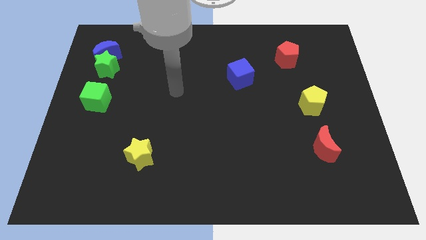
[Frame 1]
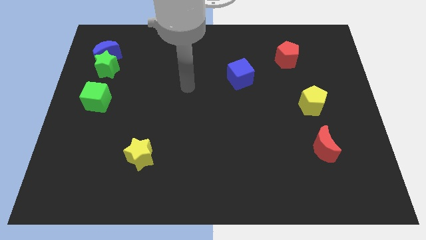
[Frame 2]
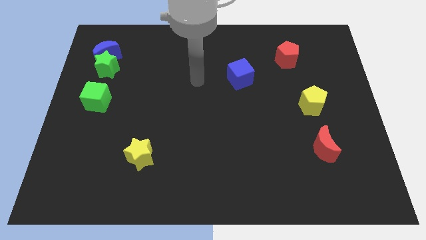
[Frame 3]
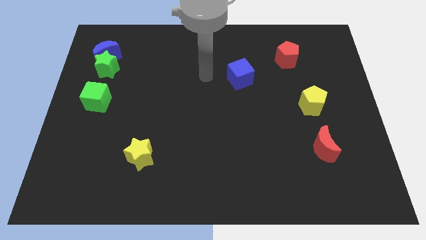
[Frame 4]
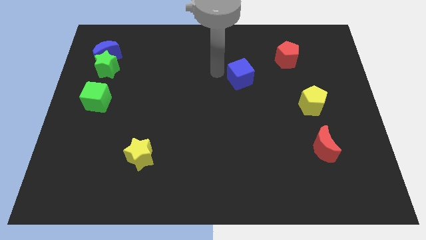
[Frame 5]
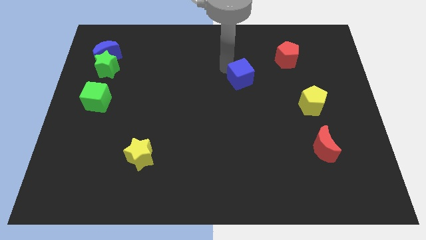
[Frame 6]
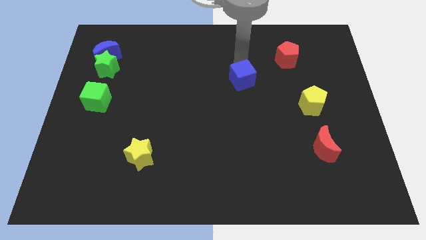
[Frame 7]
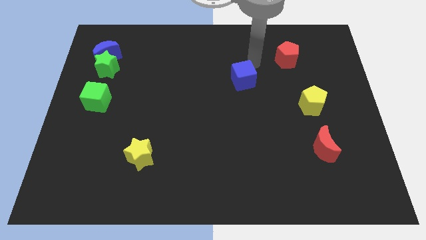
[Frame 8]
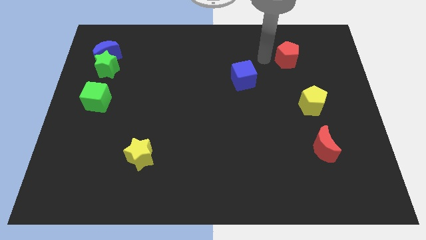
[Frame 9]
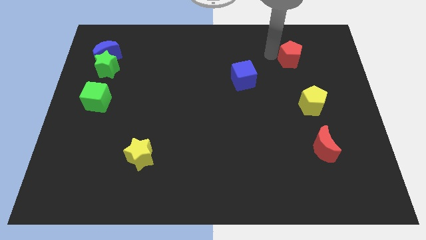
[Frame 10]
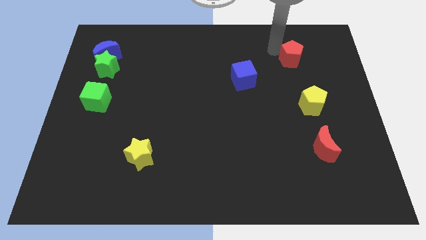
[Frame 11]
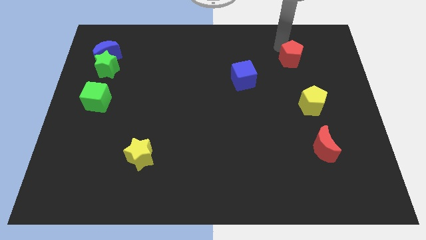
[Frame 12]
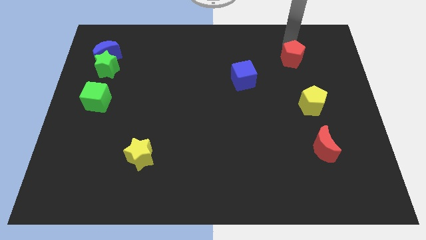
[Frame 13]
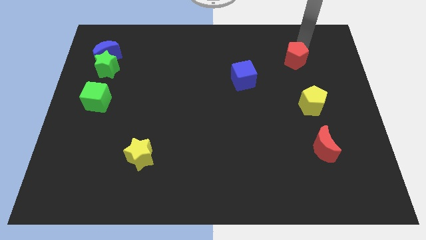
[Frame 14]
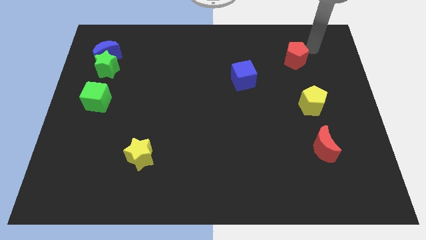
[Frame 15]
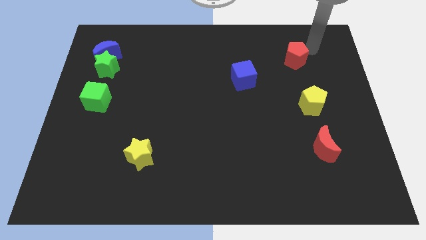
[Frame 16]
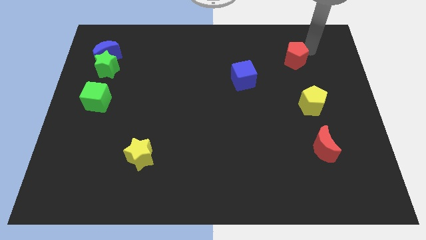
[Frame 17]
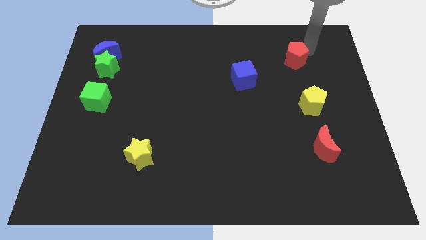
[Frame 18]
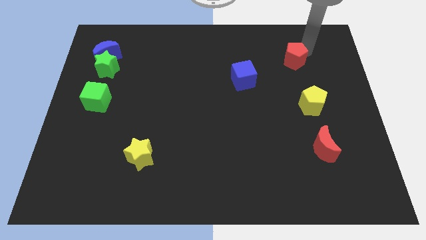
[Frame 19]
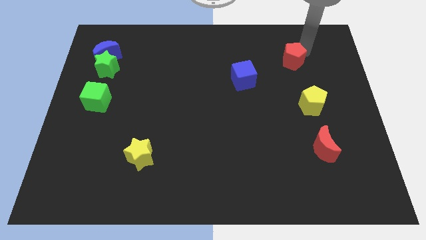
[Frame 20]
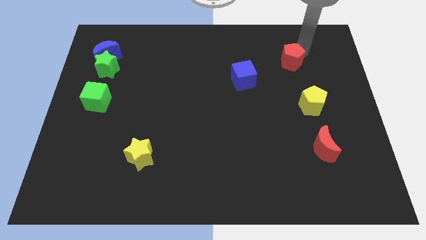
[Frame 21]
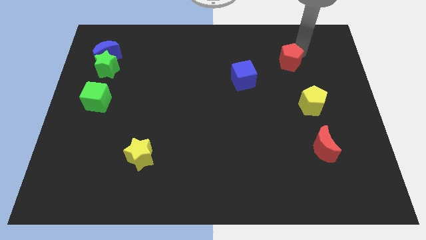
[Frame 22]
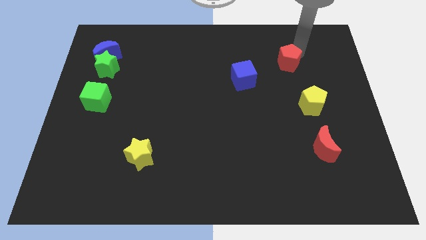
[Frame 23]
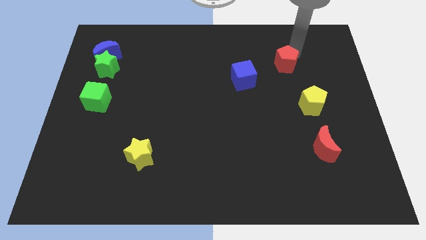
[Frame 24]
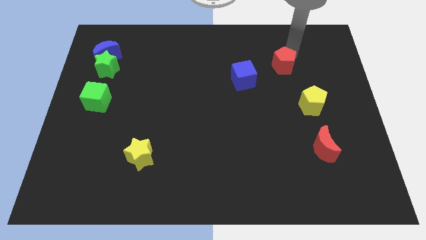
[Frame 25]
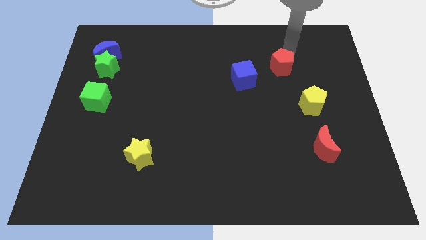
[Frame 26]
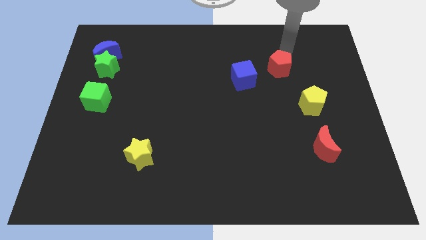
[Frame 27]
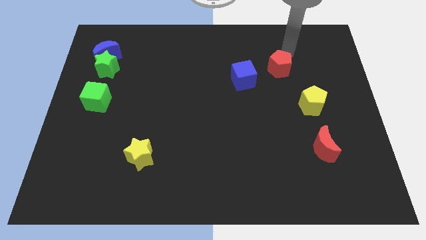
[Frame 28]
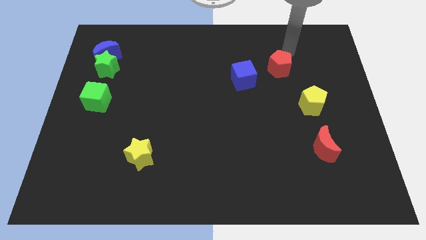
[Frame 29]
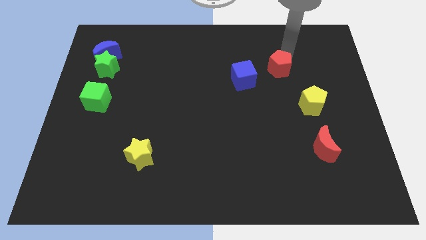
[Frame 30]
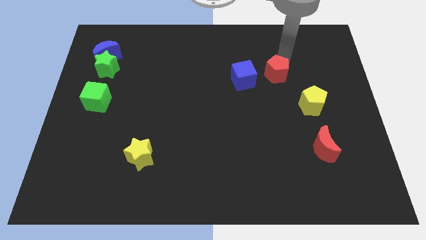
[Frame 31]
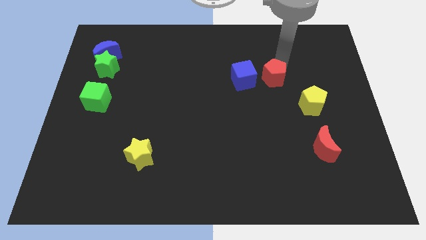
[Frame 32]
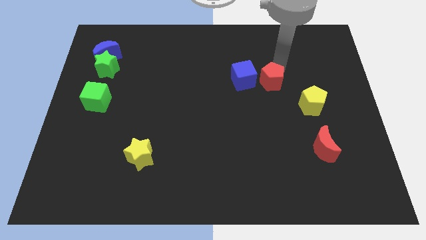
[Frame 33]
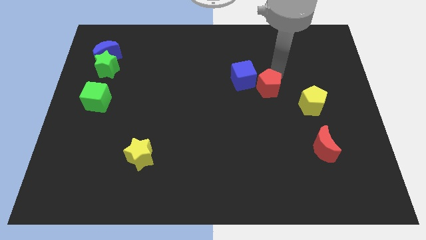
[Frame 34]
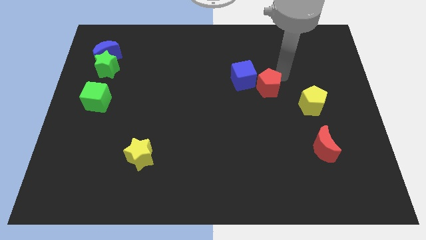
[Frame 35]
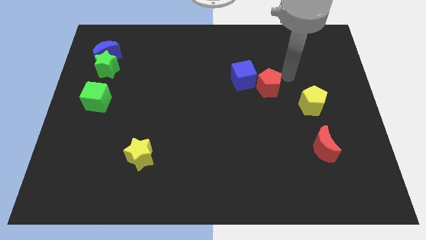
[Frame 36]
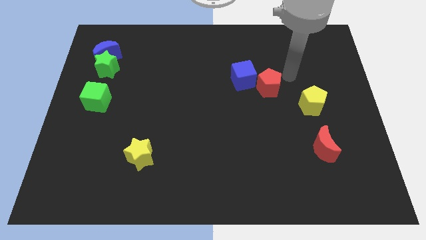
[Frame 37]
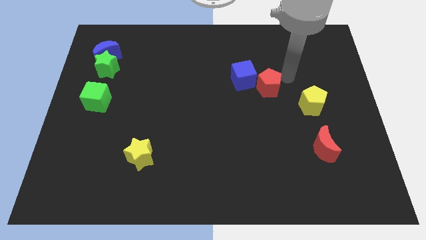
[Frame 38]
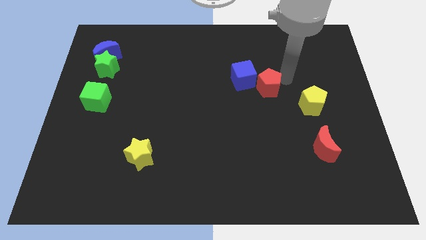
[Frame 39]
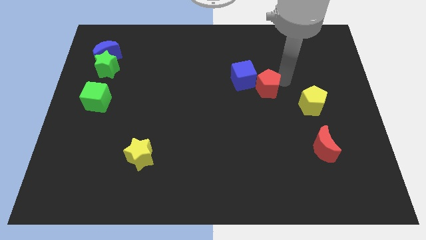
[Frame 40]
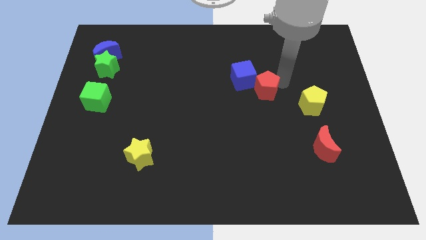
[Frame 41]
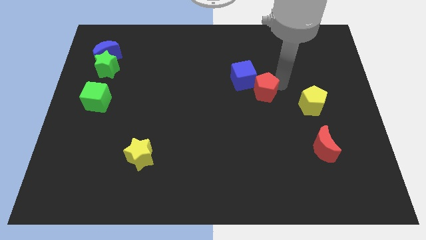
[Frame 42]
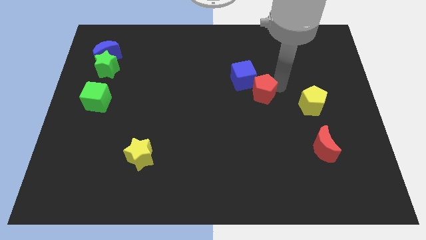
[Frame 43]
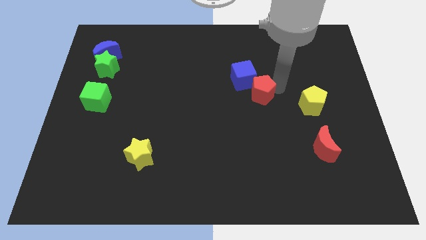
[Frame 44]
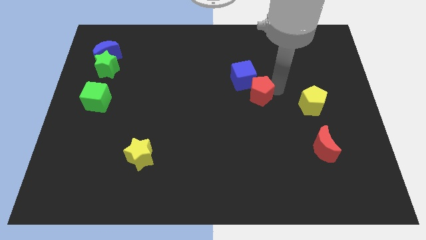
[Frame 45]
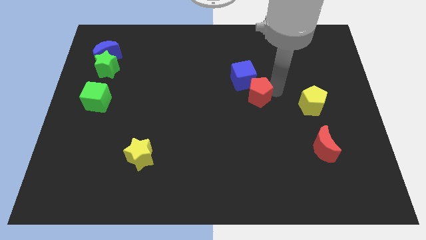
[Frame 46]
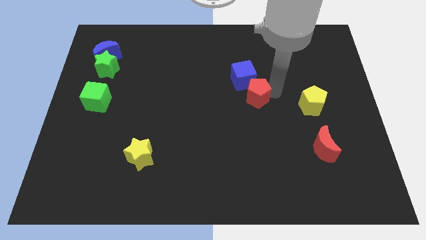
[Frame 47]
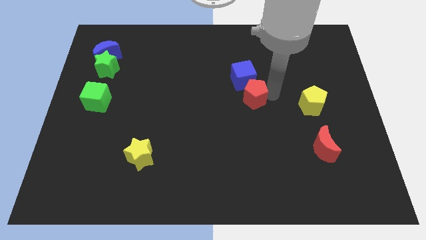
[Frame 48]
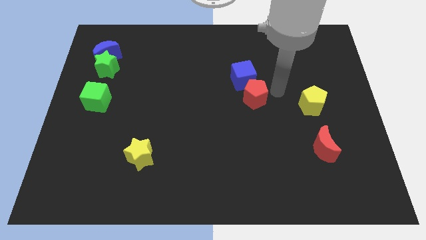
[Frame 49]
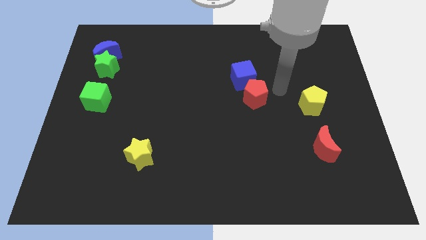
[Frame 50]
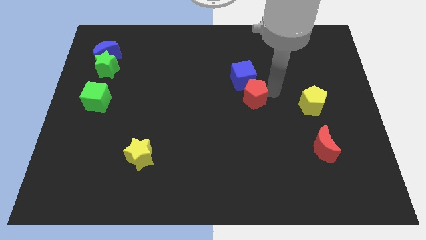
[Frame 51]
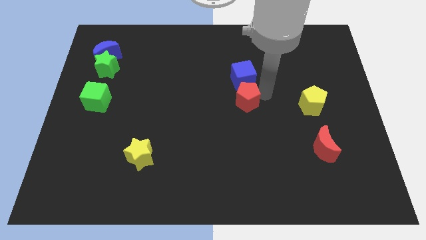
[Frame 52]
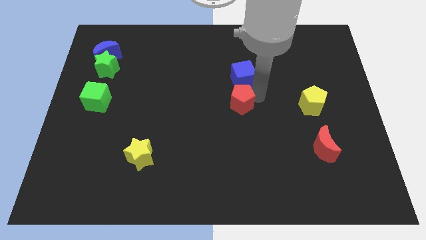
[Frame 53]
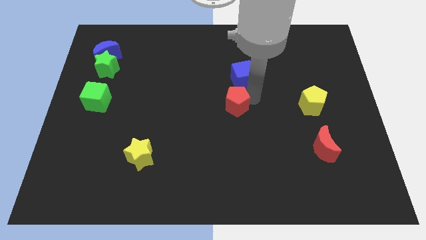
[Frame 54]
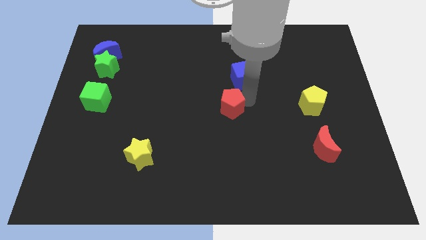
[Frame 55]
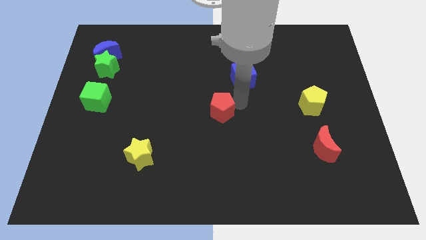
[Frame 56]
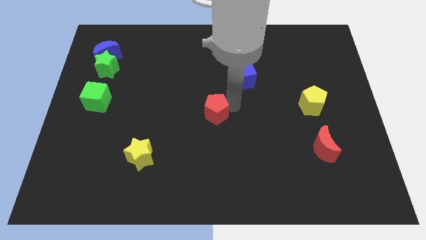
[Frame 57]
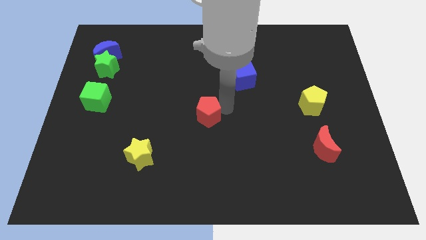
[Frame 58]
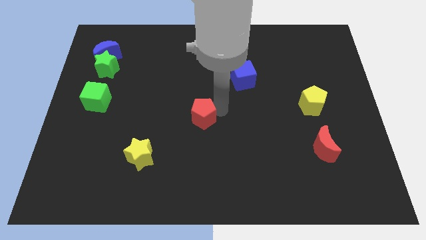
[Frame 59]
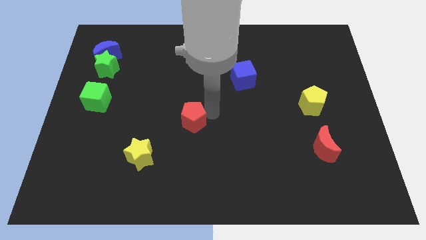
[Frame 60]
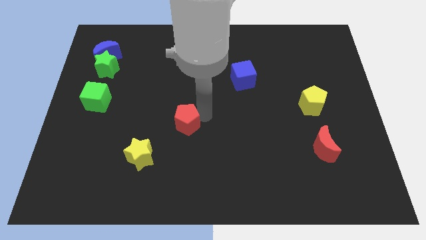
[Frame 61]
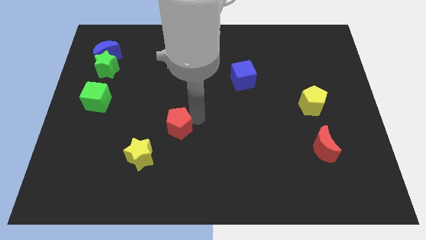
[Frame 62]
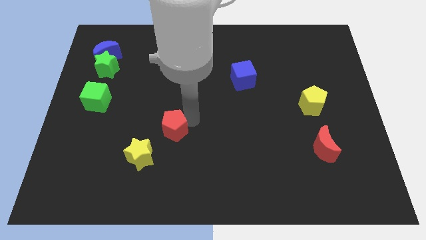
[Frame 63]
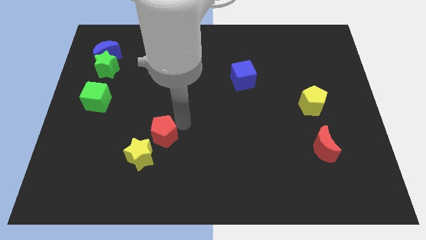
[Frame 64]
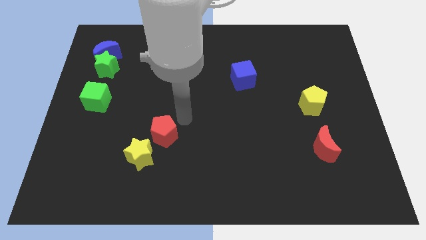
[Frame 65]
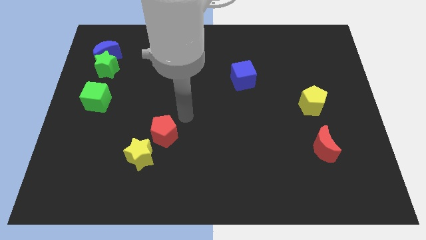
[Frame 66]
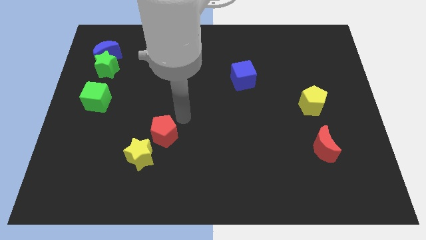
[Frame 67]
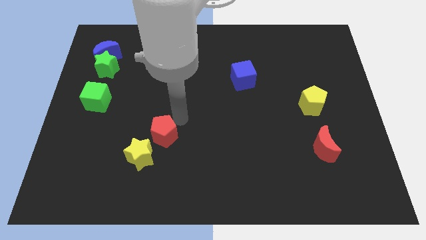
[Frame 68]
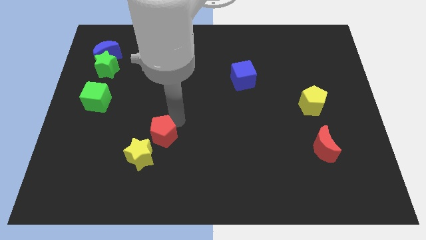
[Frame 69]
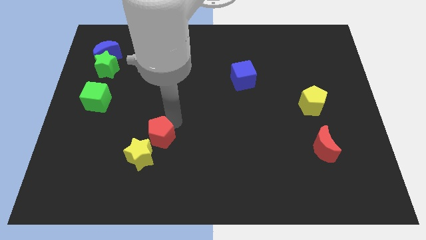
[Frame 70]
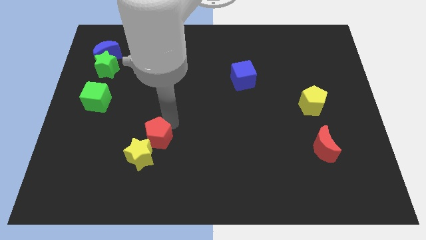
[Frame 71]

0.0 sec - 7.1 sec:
push the red pentagon close to the yellow star
